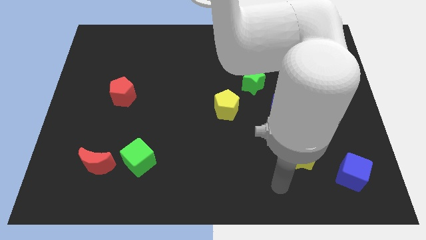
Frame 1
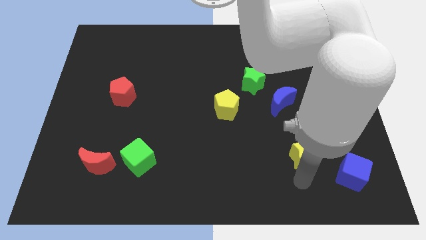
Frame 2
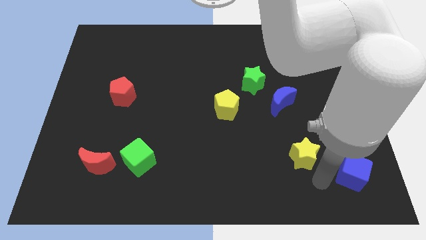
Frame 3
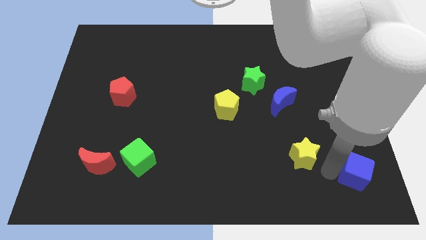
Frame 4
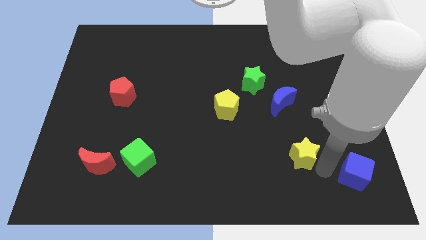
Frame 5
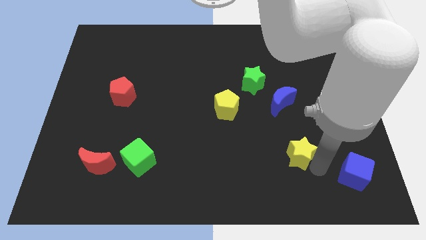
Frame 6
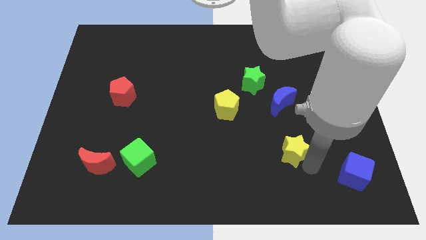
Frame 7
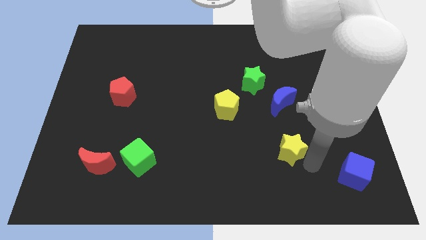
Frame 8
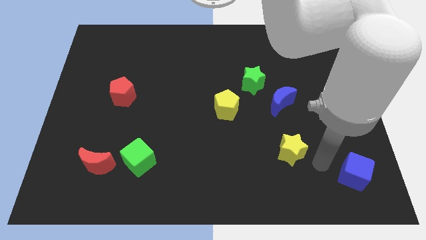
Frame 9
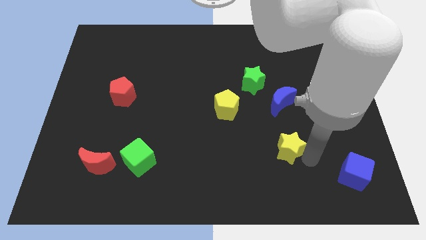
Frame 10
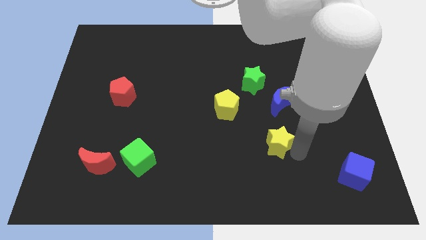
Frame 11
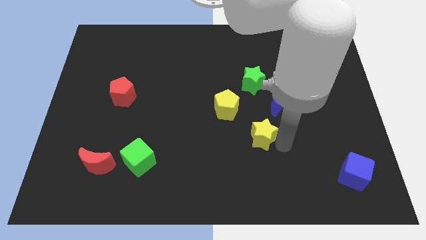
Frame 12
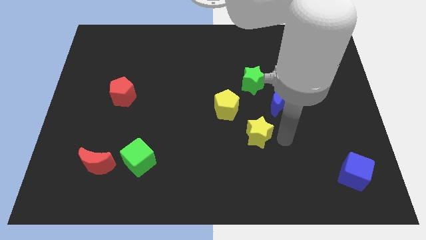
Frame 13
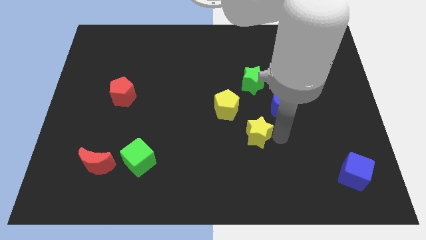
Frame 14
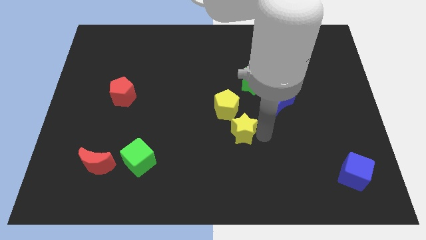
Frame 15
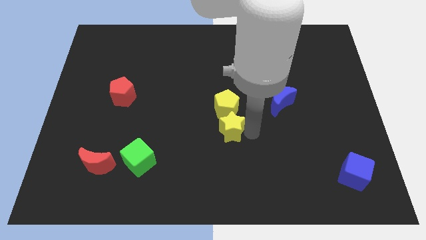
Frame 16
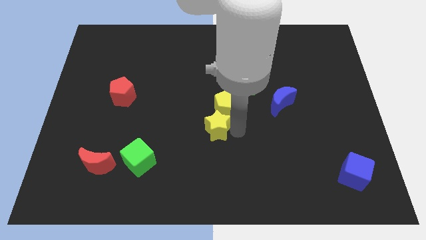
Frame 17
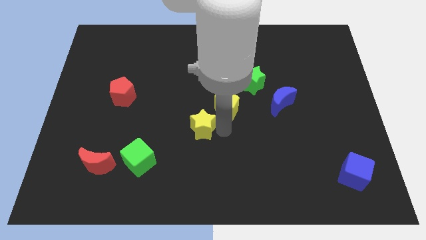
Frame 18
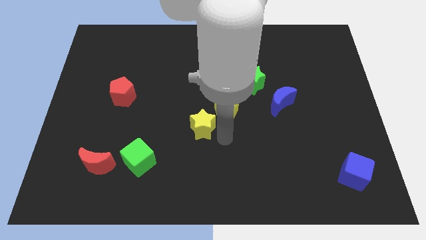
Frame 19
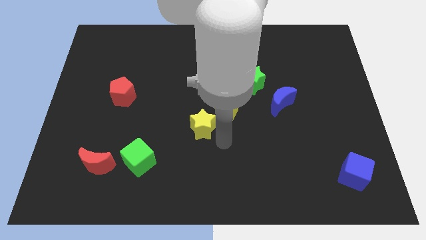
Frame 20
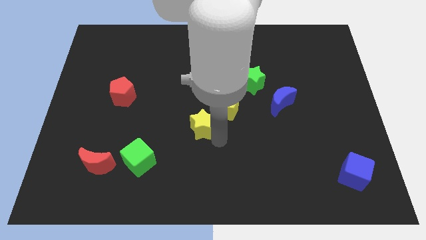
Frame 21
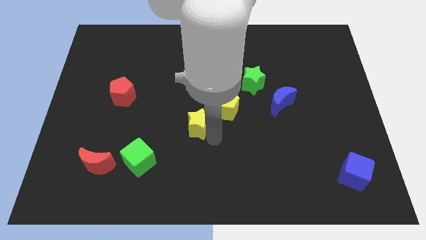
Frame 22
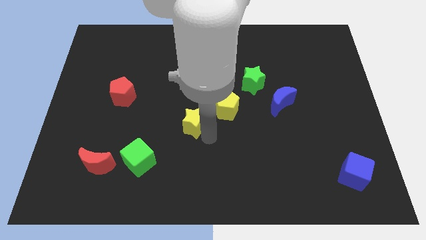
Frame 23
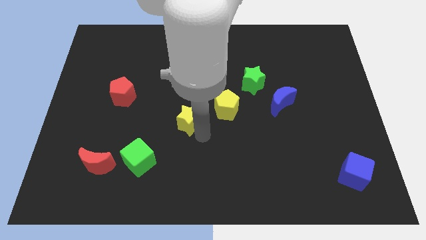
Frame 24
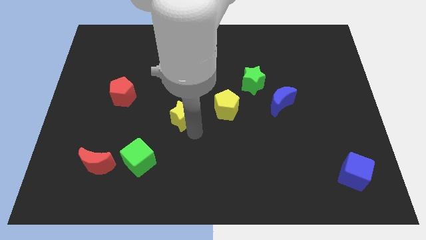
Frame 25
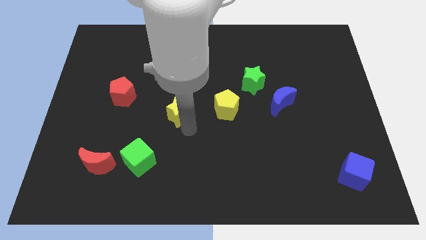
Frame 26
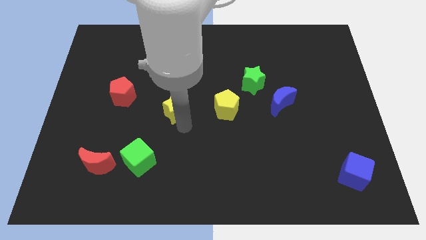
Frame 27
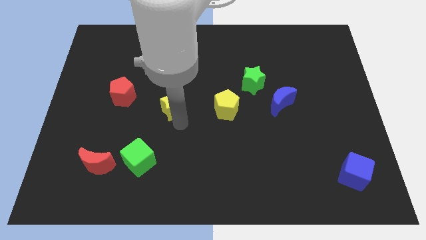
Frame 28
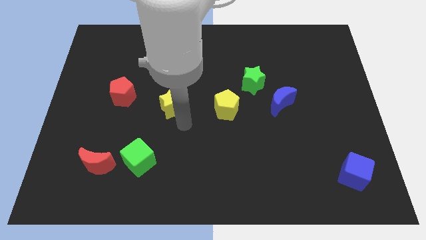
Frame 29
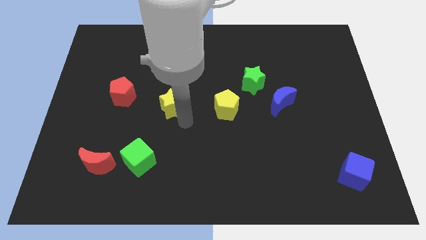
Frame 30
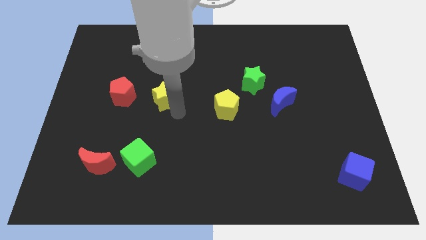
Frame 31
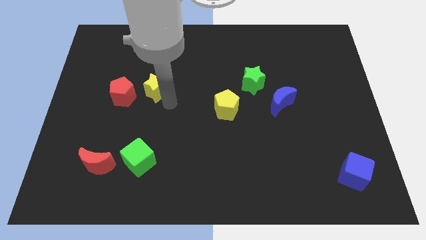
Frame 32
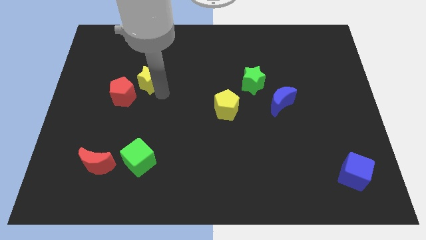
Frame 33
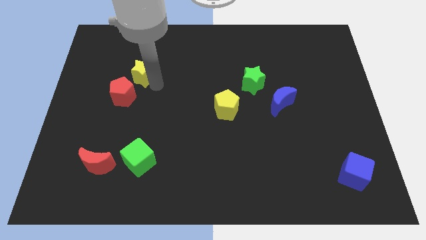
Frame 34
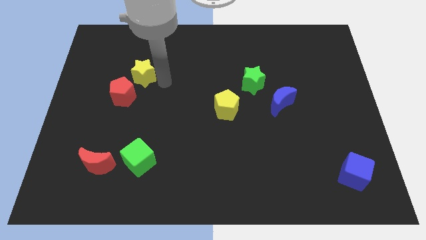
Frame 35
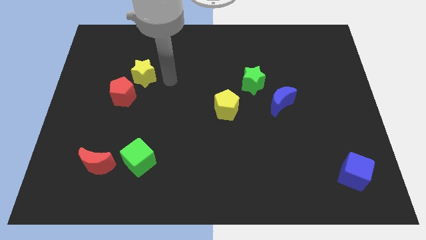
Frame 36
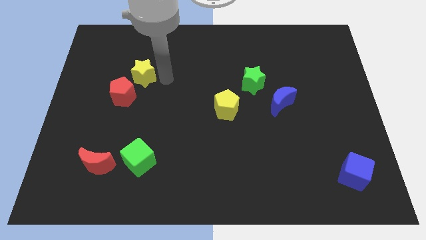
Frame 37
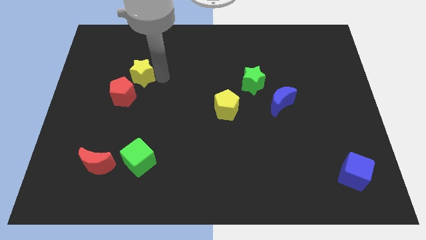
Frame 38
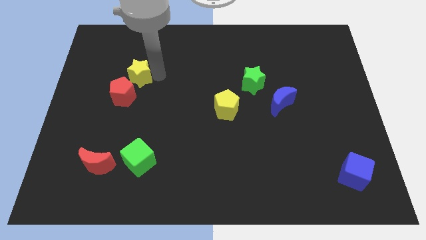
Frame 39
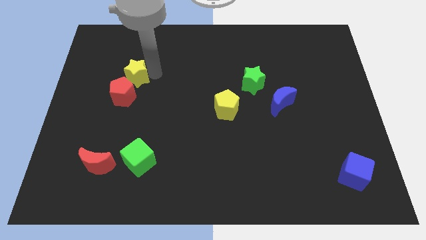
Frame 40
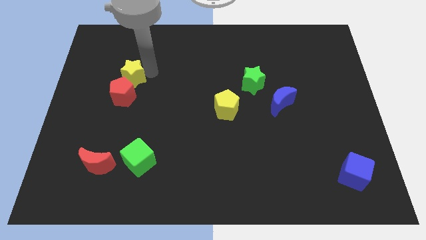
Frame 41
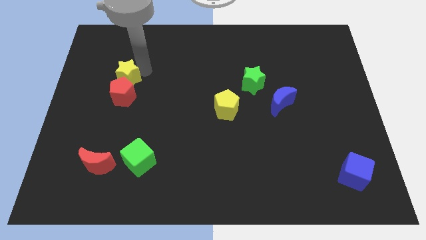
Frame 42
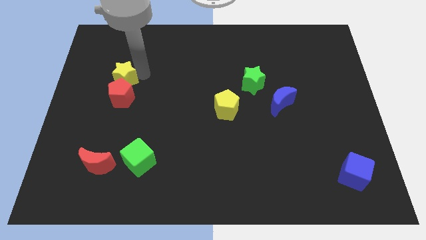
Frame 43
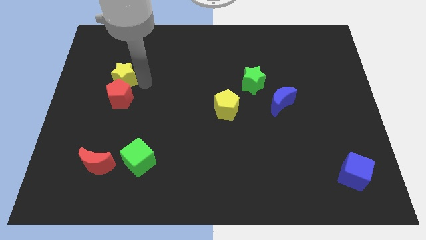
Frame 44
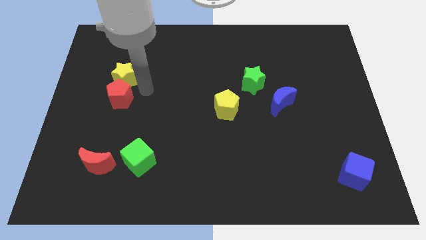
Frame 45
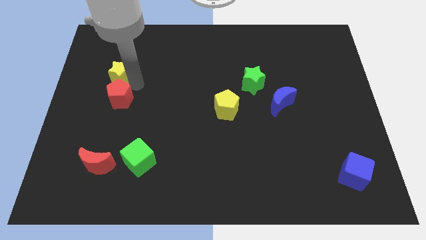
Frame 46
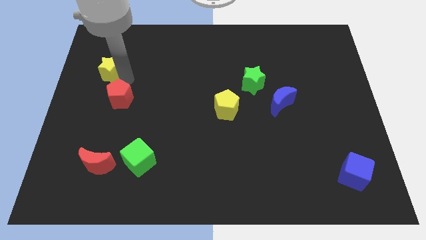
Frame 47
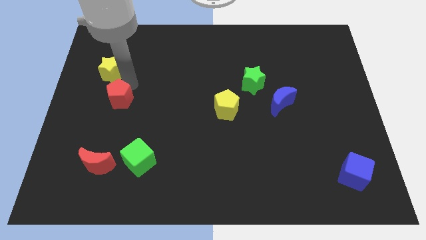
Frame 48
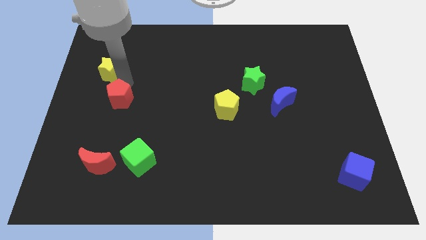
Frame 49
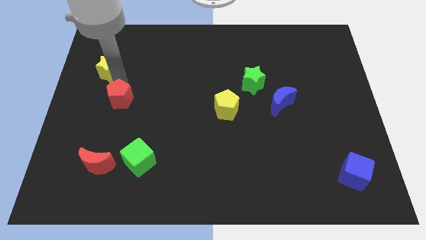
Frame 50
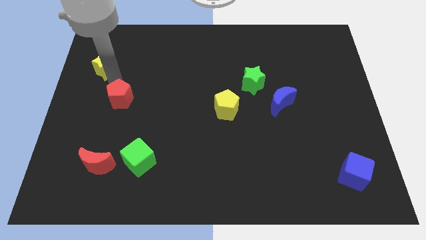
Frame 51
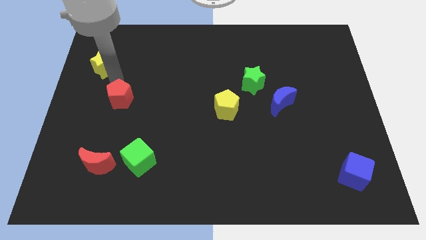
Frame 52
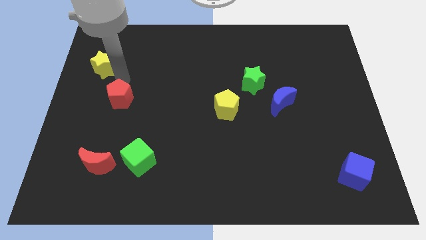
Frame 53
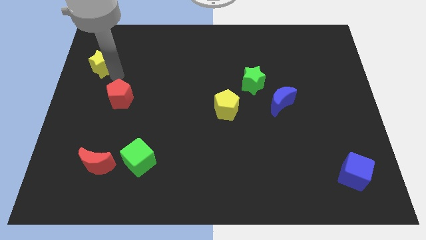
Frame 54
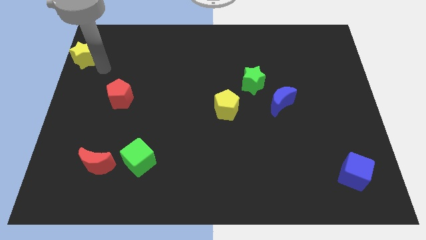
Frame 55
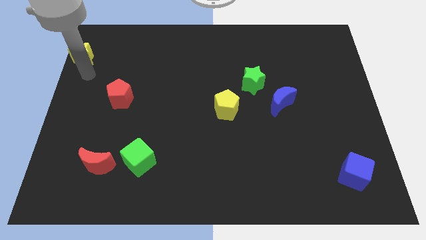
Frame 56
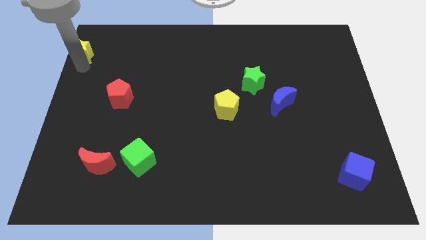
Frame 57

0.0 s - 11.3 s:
put the yellow star to the top left
